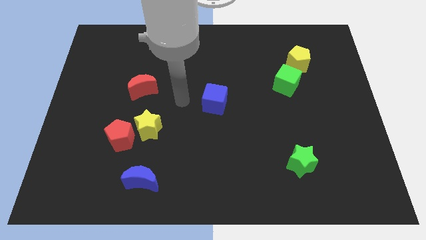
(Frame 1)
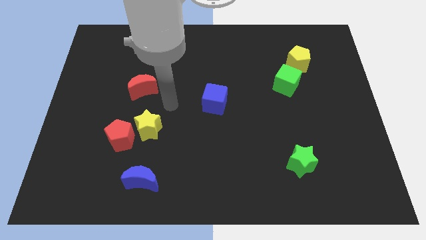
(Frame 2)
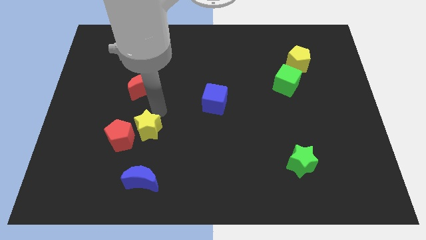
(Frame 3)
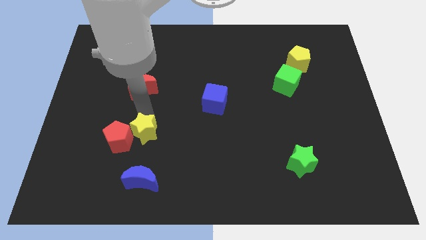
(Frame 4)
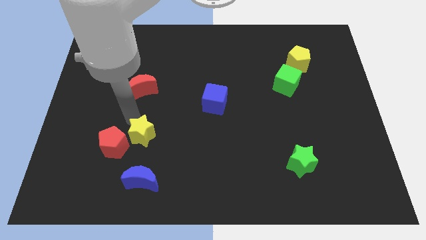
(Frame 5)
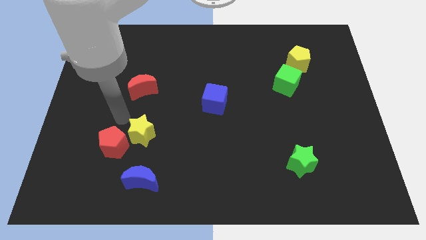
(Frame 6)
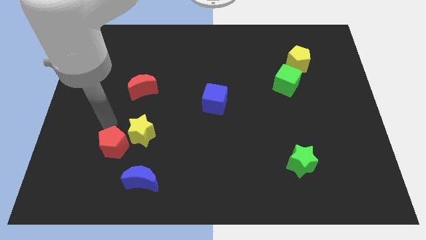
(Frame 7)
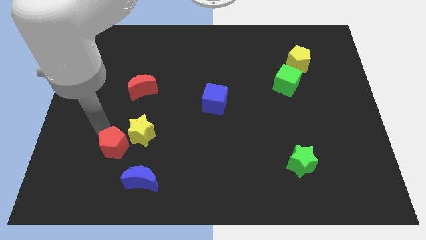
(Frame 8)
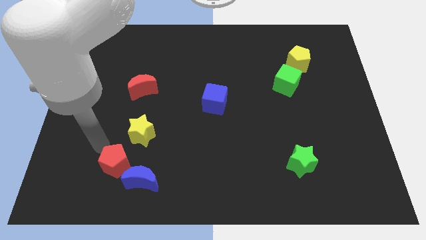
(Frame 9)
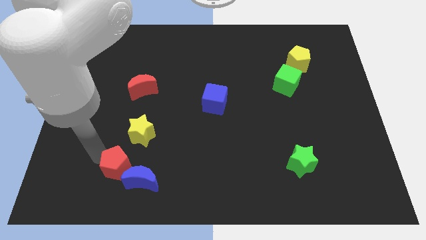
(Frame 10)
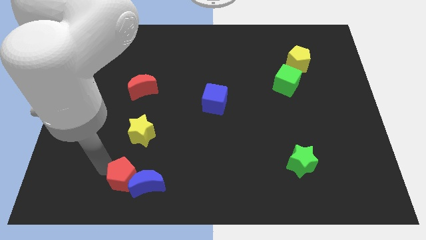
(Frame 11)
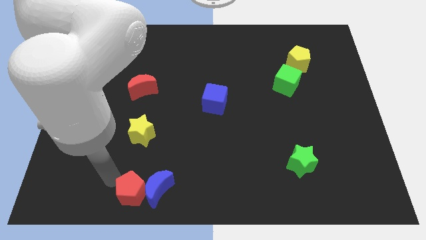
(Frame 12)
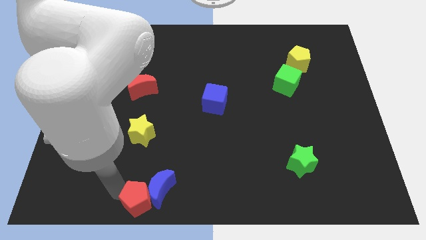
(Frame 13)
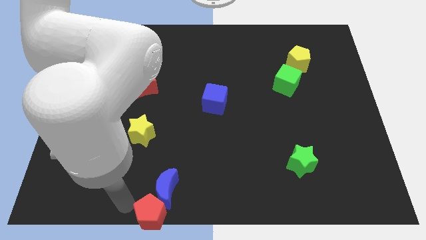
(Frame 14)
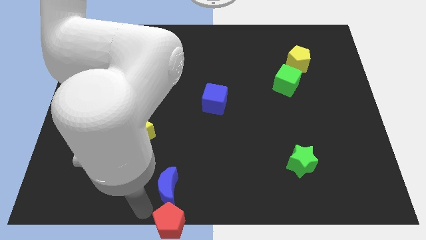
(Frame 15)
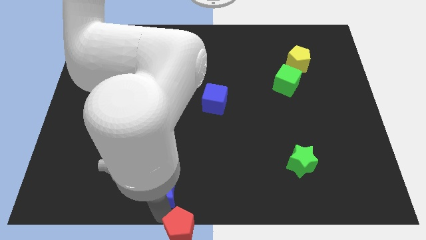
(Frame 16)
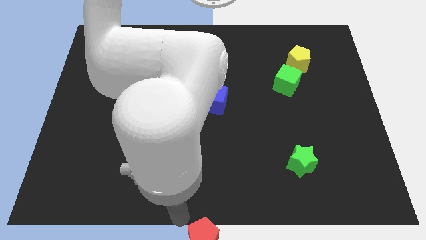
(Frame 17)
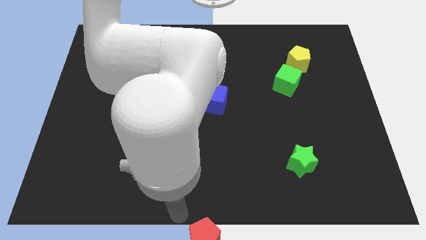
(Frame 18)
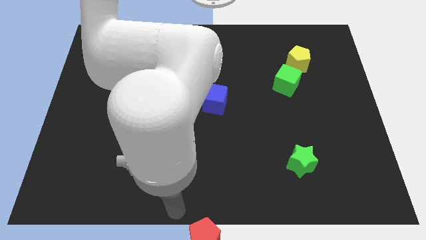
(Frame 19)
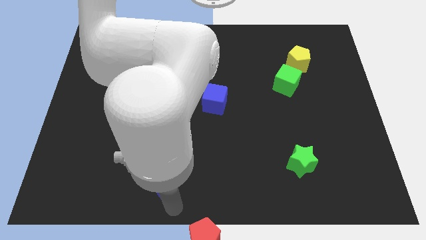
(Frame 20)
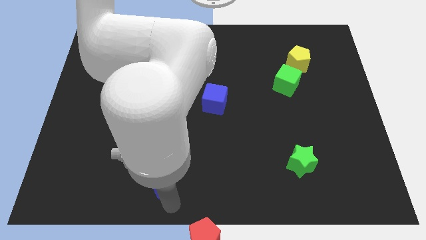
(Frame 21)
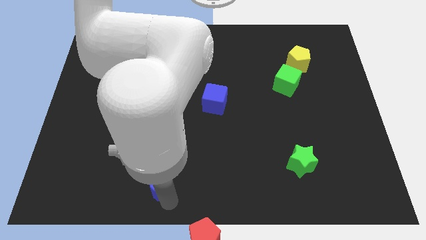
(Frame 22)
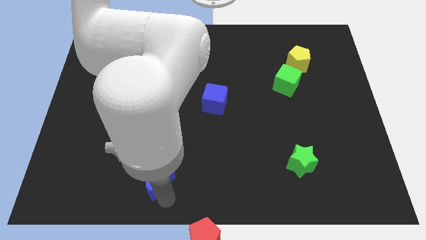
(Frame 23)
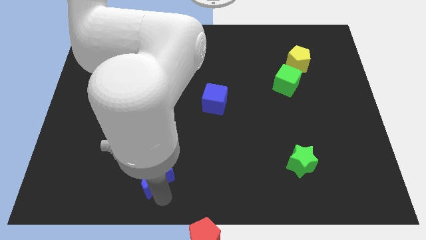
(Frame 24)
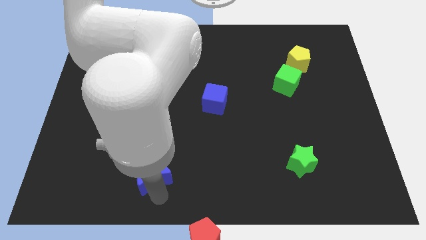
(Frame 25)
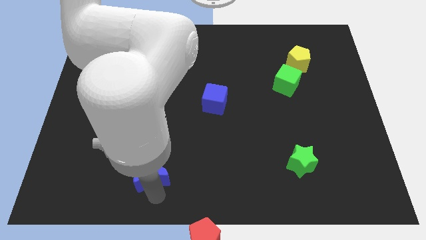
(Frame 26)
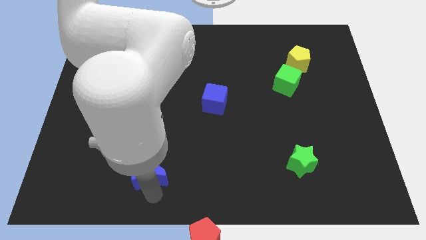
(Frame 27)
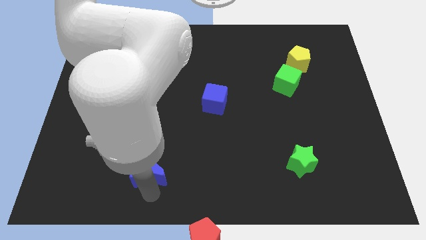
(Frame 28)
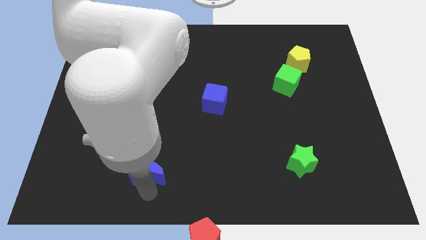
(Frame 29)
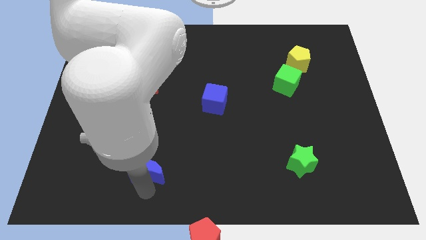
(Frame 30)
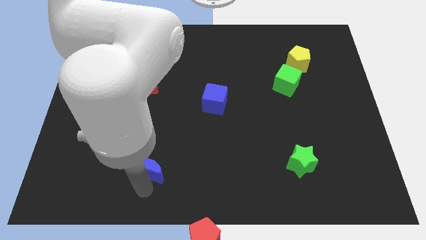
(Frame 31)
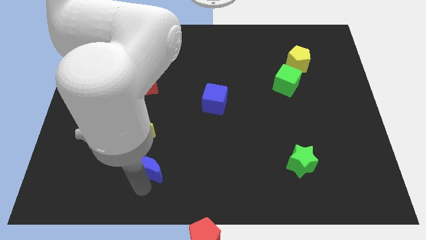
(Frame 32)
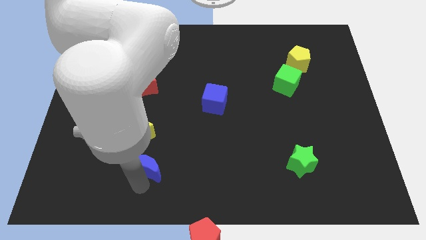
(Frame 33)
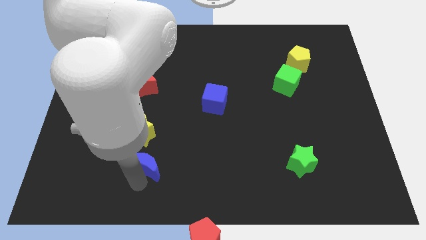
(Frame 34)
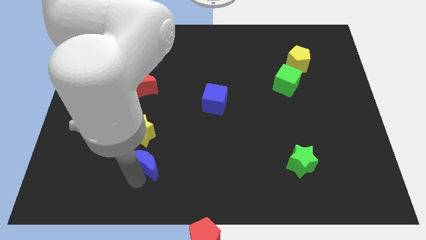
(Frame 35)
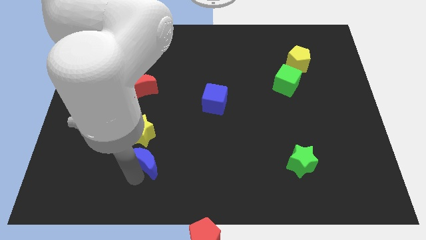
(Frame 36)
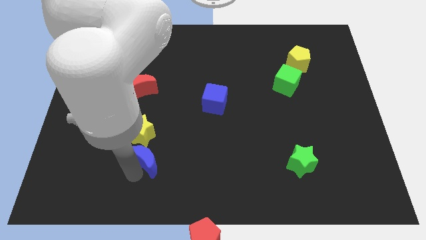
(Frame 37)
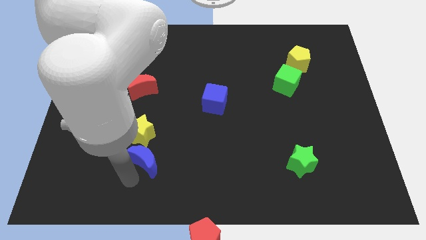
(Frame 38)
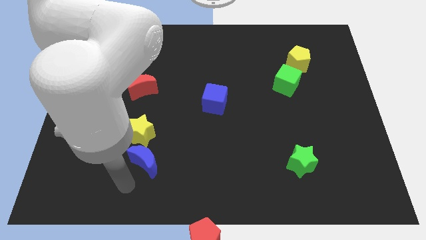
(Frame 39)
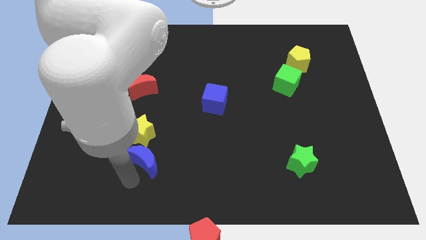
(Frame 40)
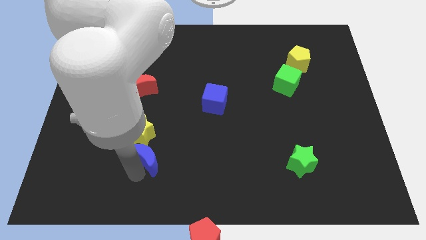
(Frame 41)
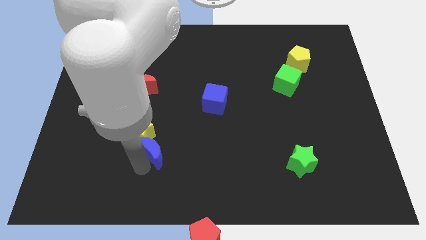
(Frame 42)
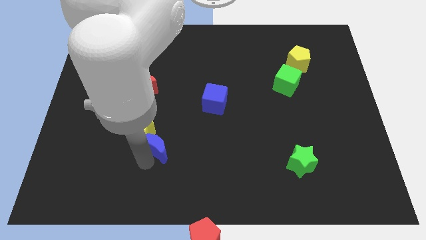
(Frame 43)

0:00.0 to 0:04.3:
slightly push the blue moon upwards

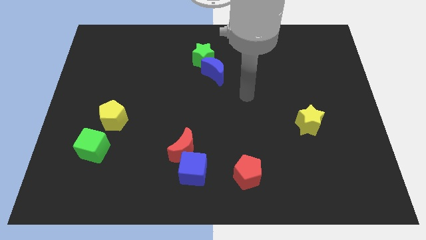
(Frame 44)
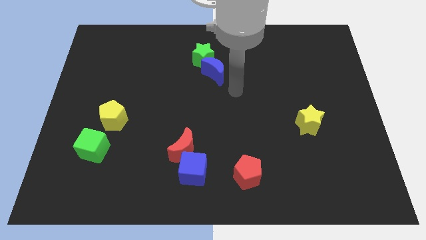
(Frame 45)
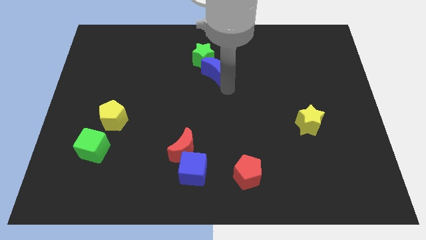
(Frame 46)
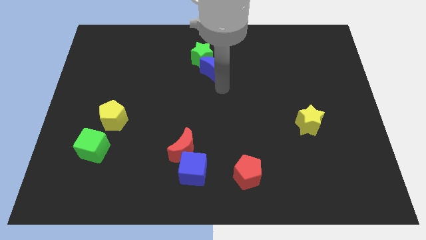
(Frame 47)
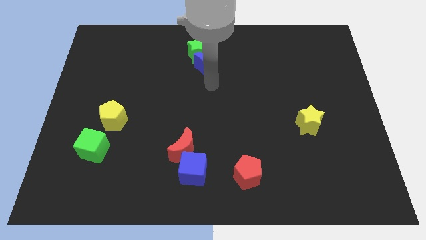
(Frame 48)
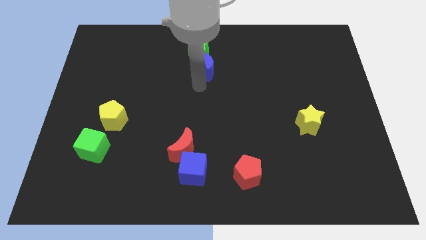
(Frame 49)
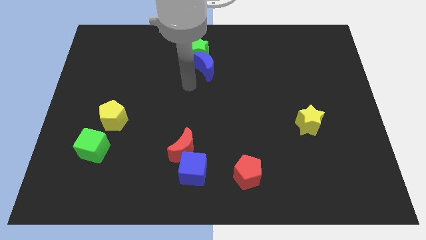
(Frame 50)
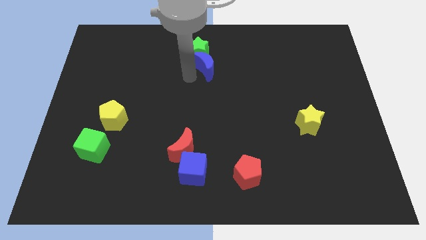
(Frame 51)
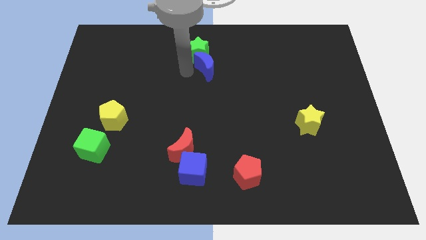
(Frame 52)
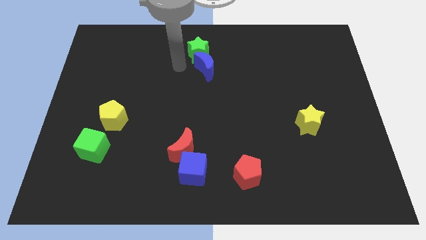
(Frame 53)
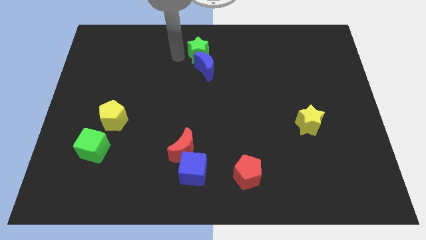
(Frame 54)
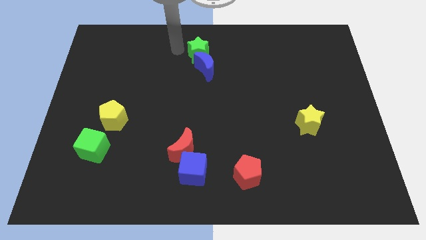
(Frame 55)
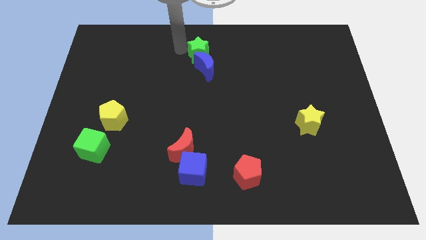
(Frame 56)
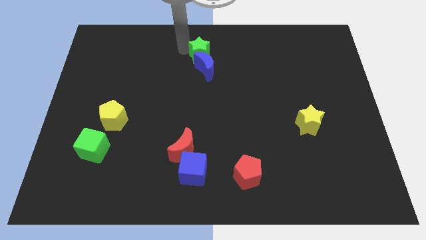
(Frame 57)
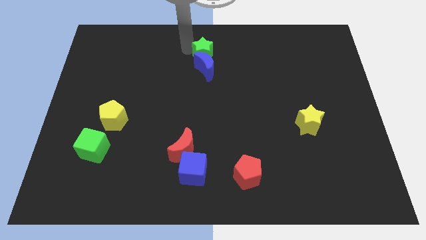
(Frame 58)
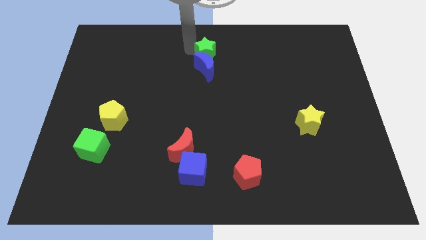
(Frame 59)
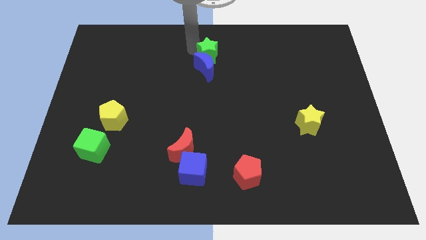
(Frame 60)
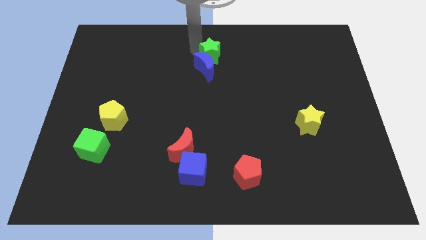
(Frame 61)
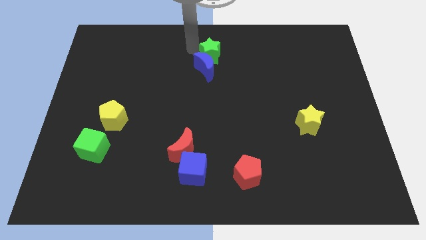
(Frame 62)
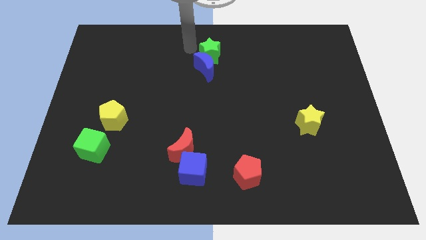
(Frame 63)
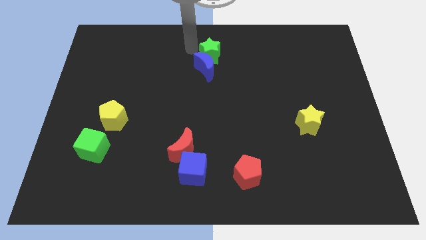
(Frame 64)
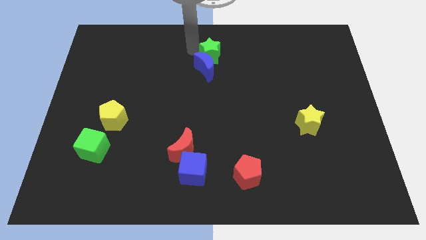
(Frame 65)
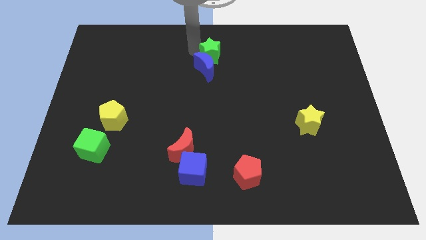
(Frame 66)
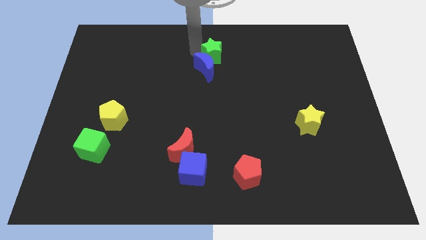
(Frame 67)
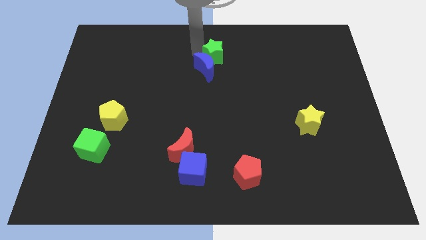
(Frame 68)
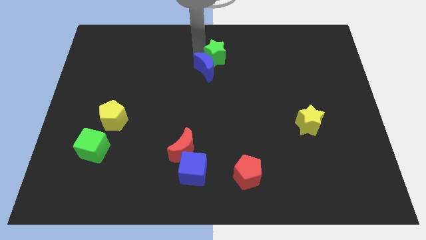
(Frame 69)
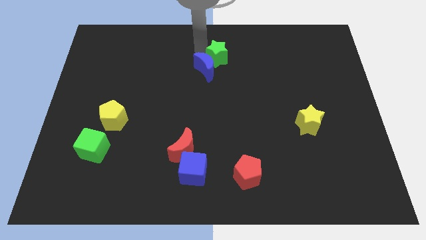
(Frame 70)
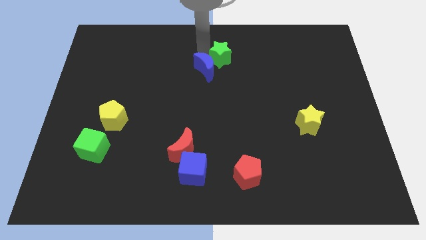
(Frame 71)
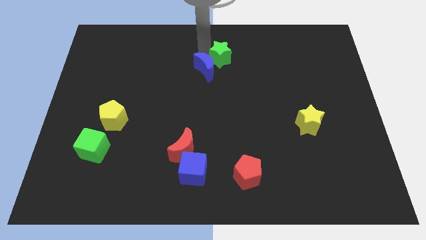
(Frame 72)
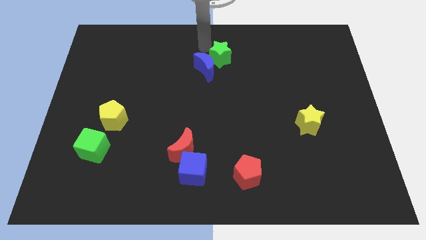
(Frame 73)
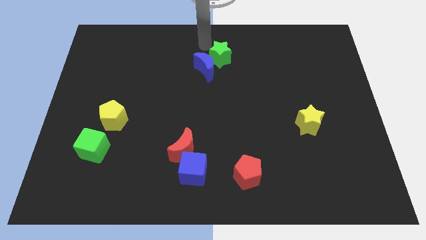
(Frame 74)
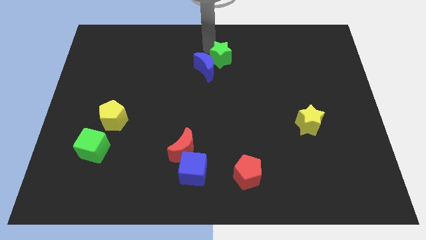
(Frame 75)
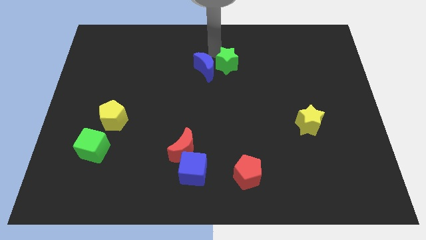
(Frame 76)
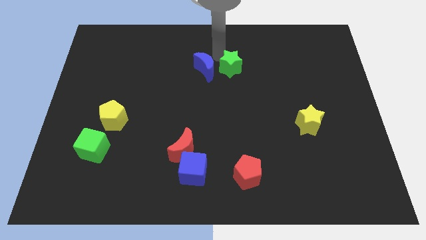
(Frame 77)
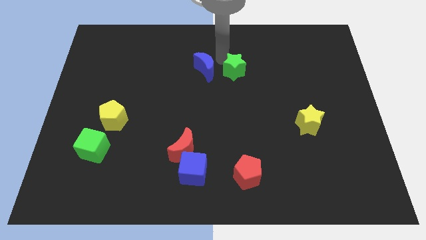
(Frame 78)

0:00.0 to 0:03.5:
move the green star slightly down and right

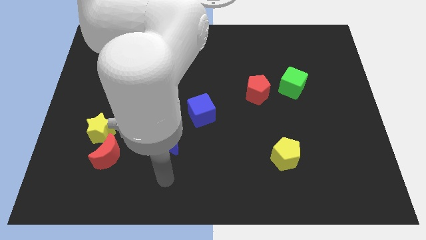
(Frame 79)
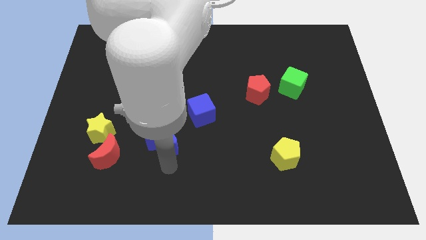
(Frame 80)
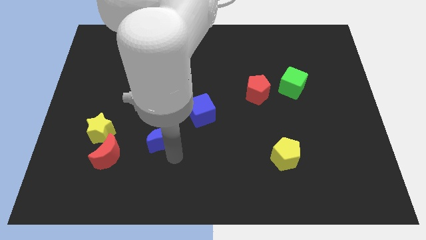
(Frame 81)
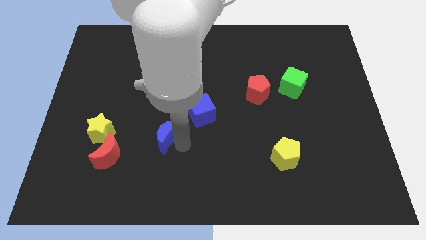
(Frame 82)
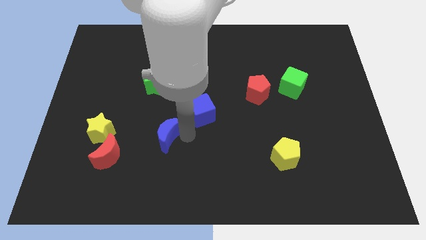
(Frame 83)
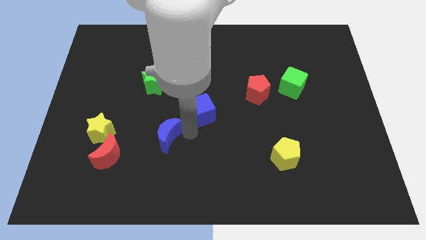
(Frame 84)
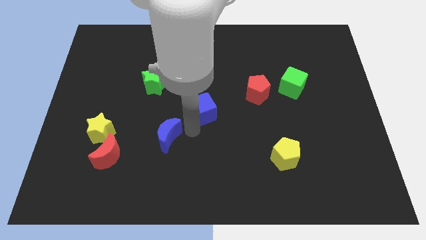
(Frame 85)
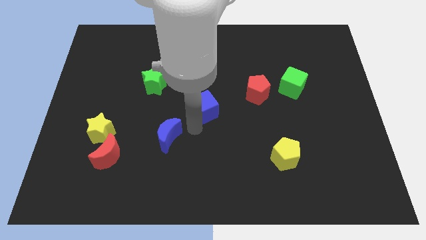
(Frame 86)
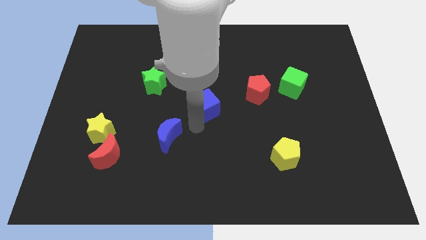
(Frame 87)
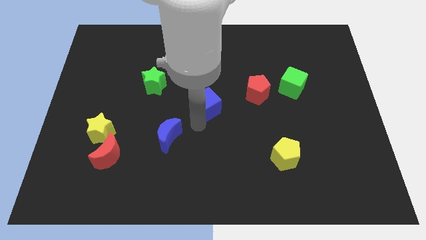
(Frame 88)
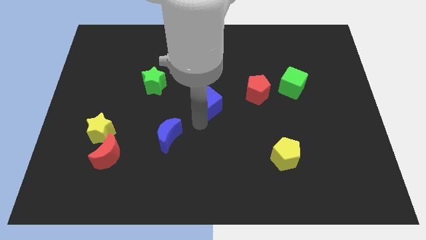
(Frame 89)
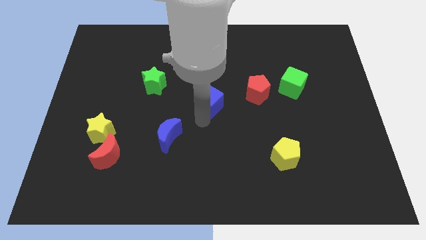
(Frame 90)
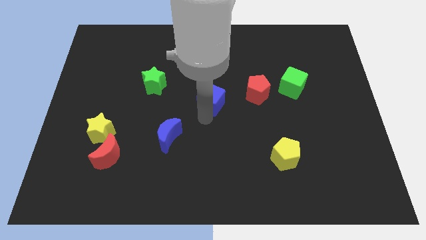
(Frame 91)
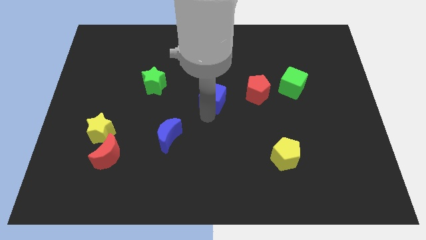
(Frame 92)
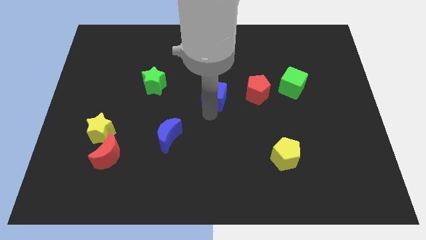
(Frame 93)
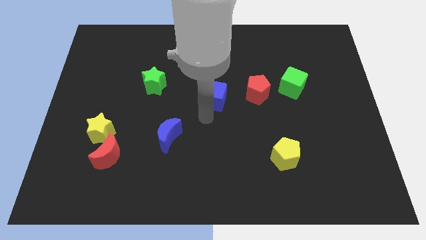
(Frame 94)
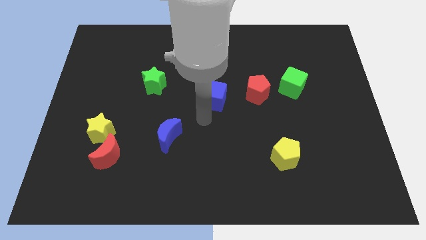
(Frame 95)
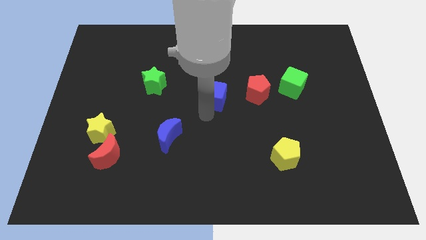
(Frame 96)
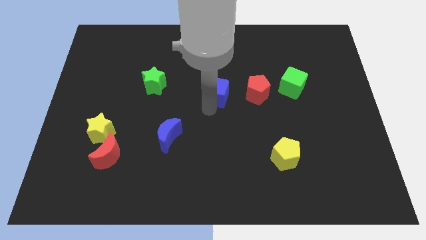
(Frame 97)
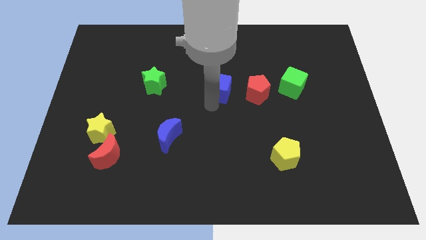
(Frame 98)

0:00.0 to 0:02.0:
push the blue cube up and then right slightly
